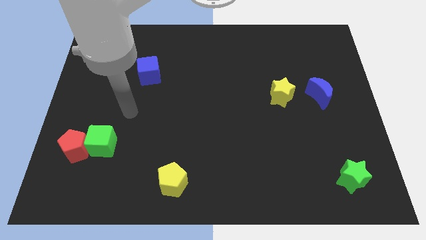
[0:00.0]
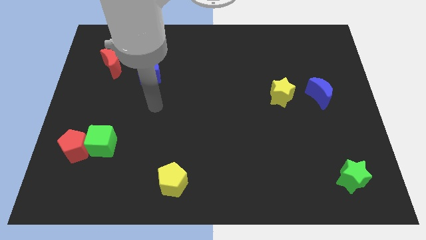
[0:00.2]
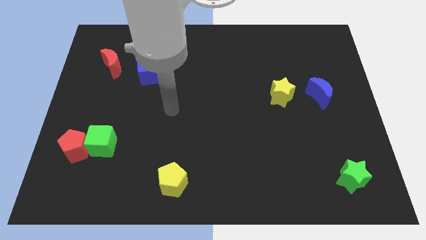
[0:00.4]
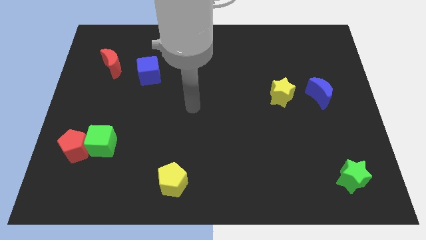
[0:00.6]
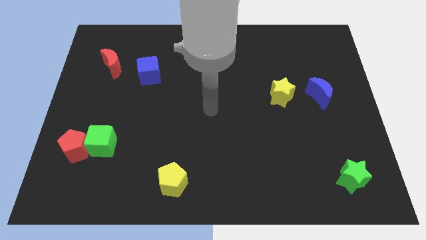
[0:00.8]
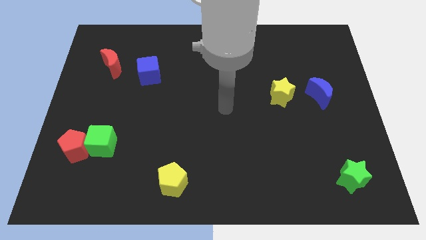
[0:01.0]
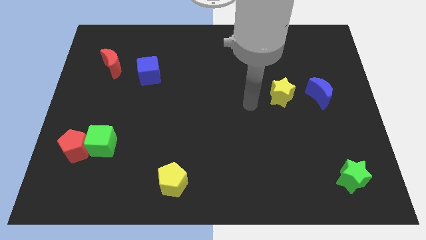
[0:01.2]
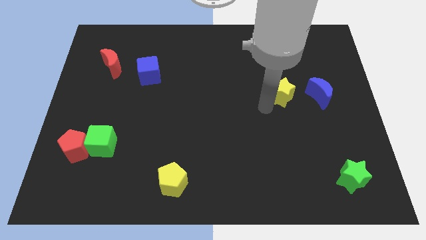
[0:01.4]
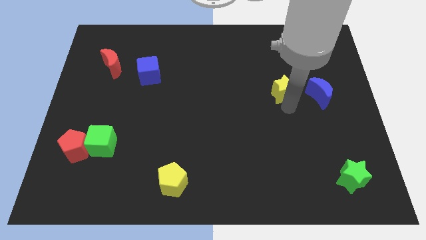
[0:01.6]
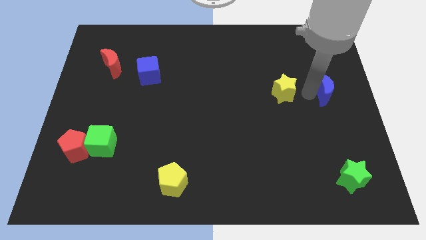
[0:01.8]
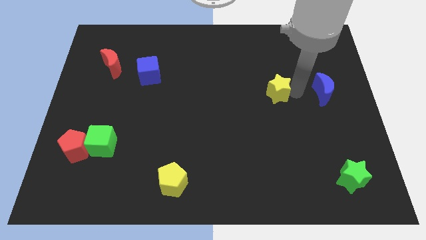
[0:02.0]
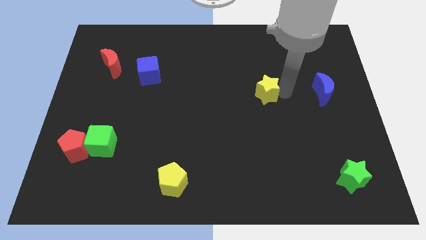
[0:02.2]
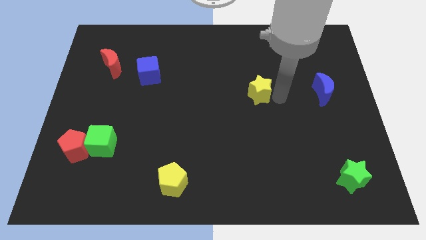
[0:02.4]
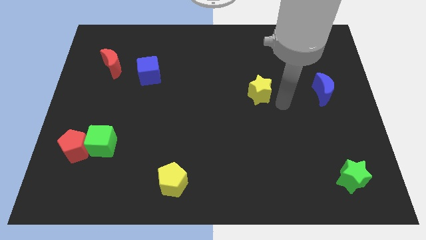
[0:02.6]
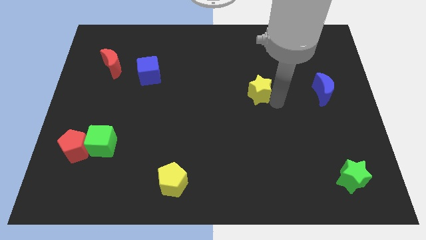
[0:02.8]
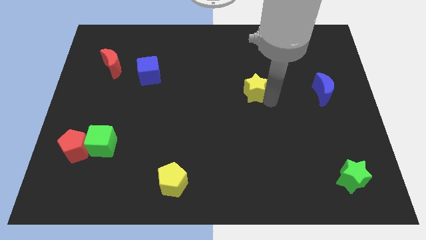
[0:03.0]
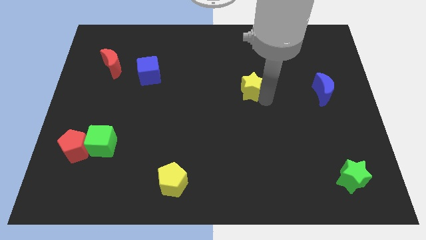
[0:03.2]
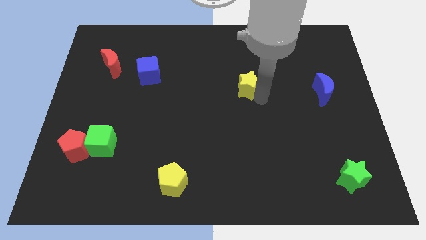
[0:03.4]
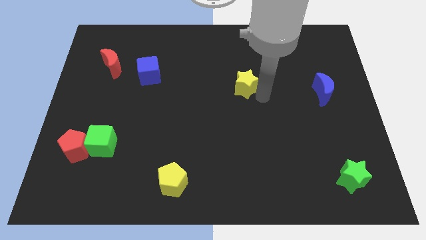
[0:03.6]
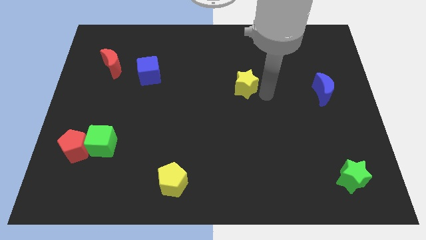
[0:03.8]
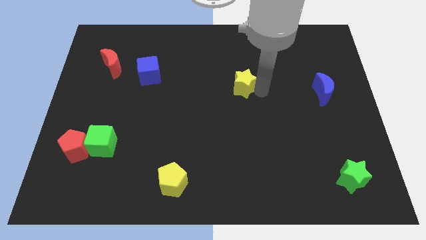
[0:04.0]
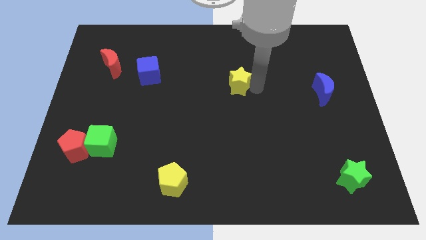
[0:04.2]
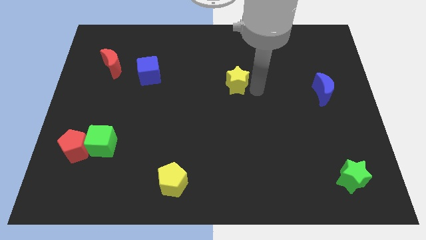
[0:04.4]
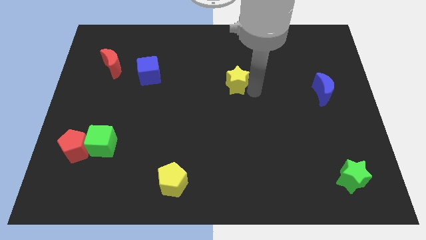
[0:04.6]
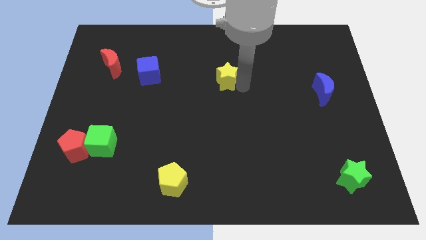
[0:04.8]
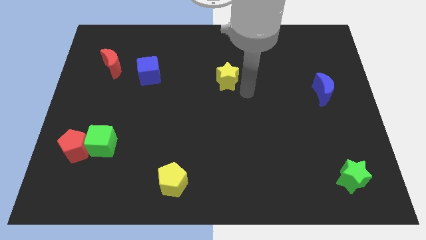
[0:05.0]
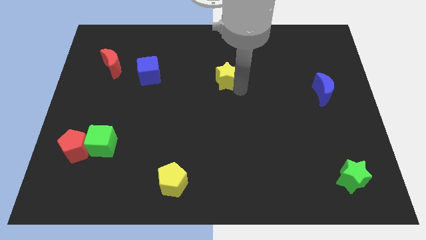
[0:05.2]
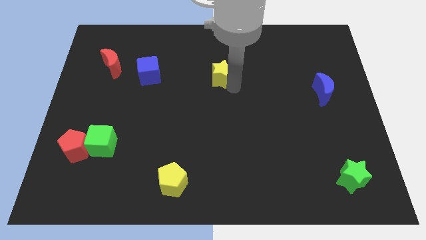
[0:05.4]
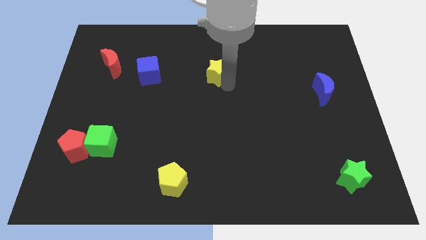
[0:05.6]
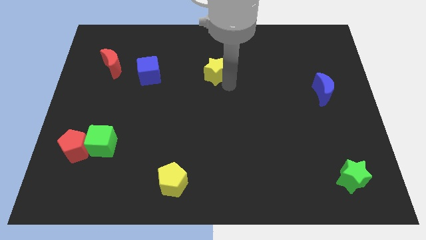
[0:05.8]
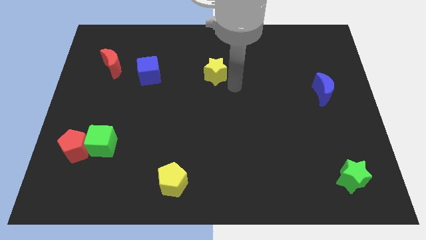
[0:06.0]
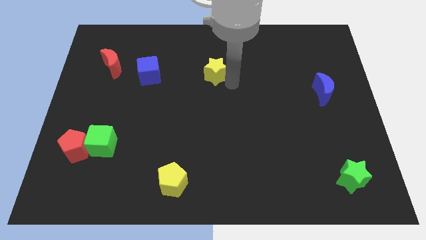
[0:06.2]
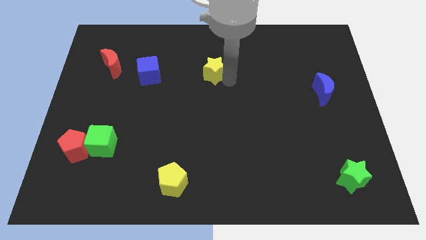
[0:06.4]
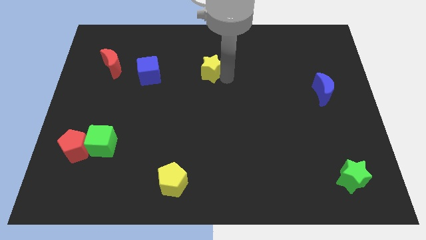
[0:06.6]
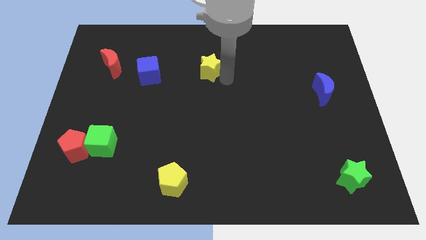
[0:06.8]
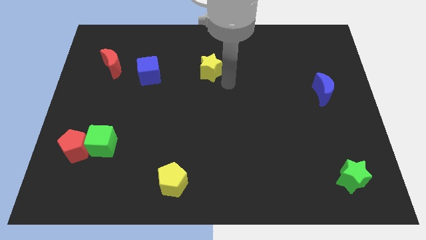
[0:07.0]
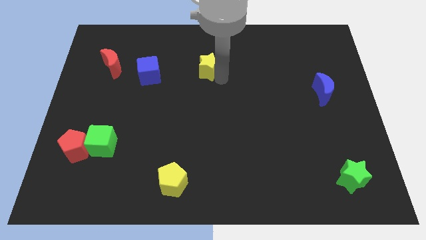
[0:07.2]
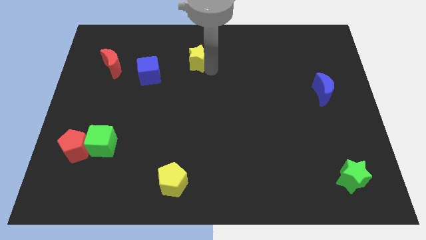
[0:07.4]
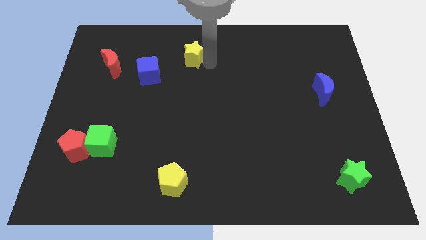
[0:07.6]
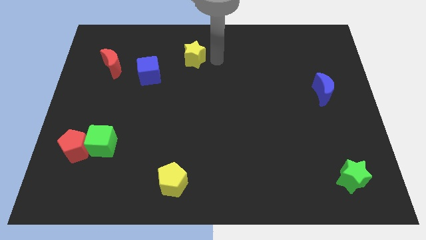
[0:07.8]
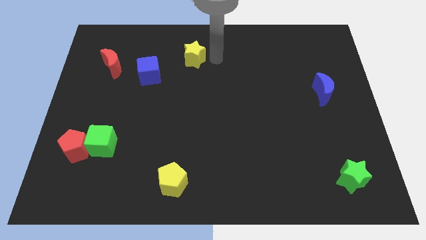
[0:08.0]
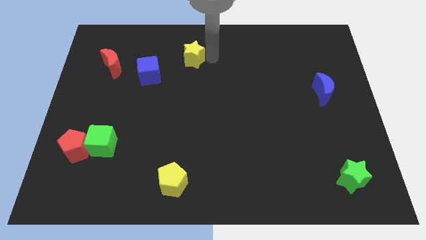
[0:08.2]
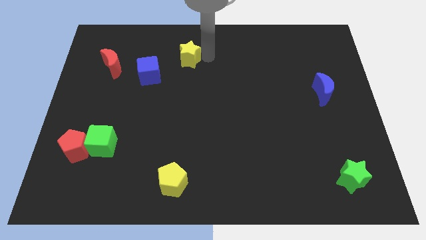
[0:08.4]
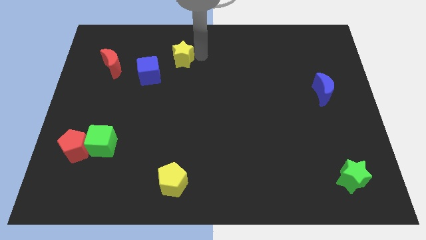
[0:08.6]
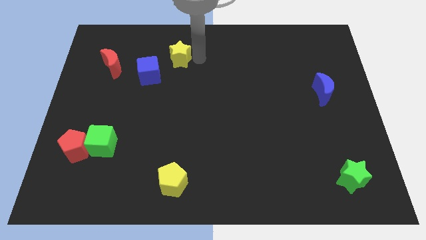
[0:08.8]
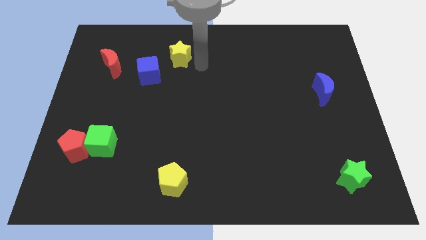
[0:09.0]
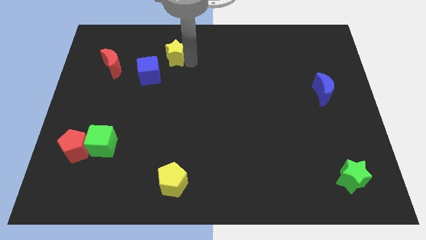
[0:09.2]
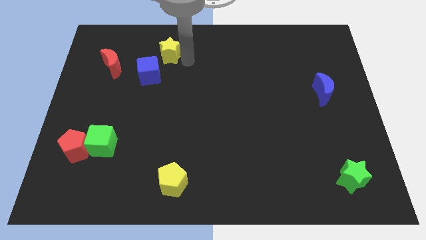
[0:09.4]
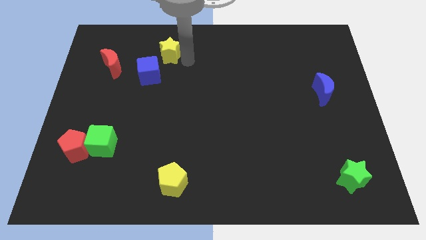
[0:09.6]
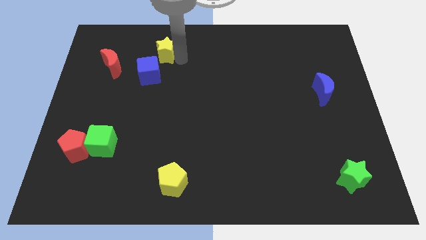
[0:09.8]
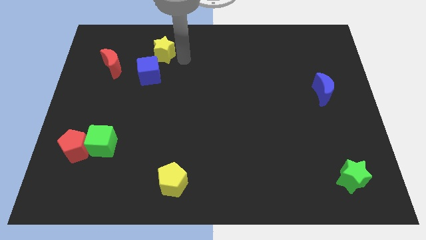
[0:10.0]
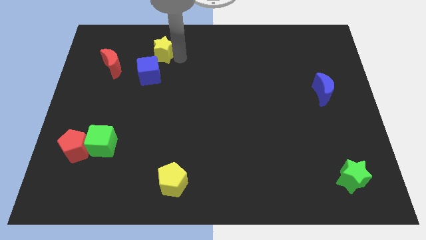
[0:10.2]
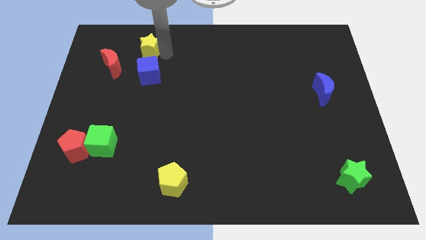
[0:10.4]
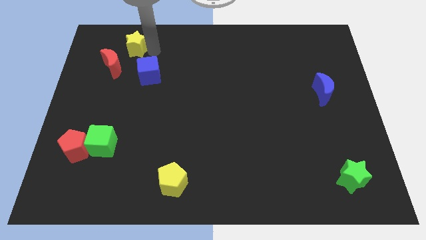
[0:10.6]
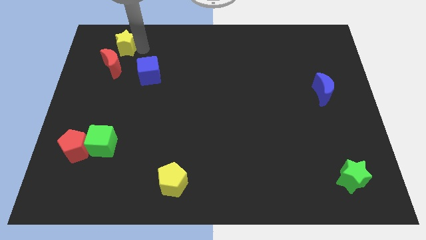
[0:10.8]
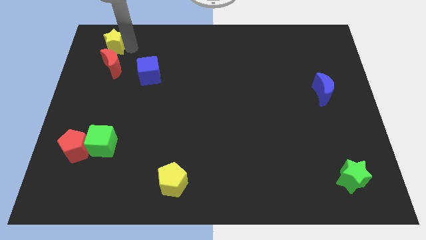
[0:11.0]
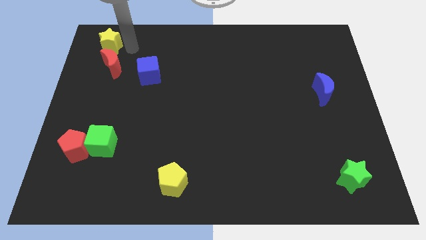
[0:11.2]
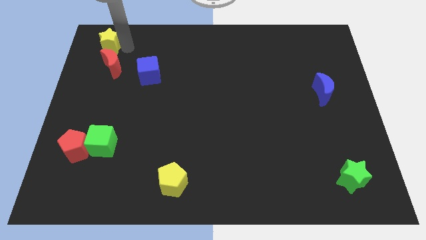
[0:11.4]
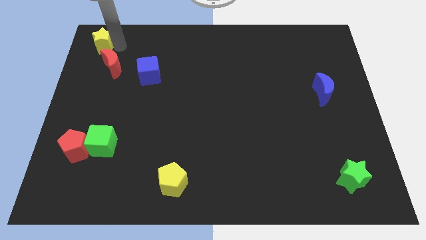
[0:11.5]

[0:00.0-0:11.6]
slide the yellow star to the top left

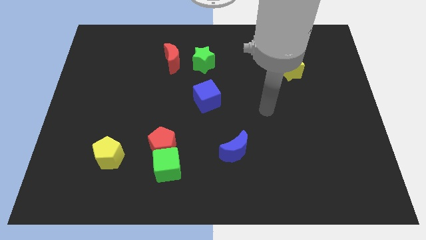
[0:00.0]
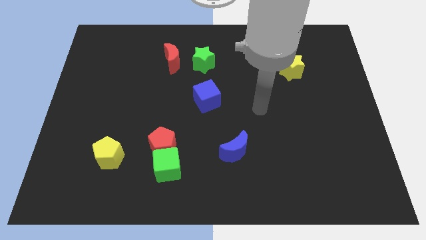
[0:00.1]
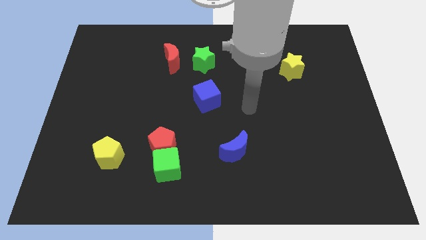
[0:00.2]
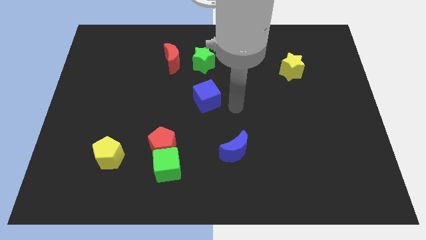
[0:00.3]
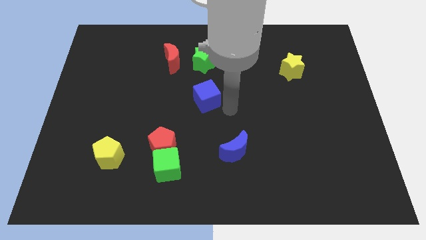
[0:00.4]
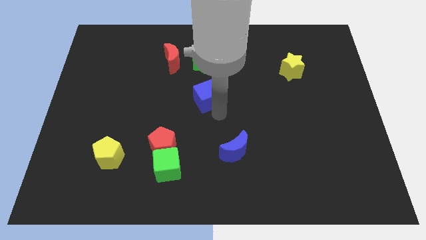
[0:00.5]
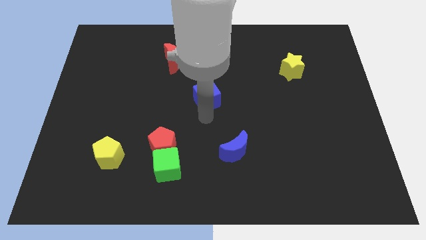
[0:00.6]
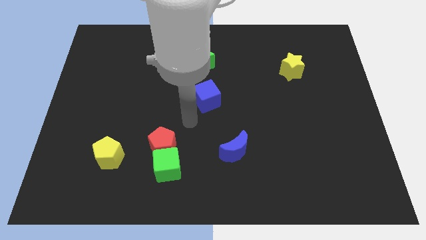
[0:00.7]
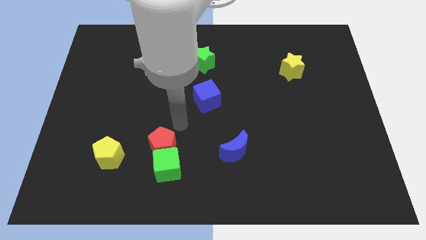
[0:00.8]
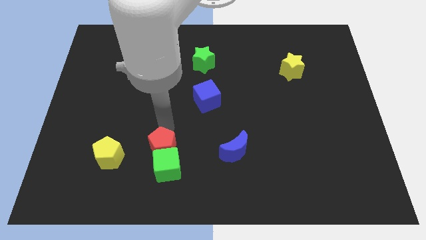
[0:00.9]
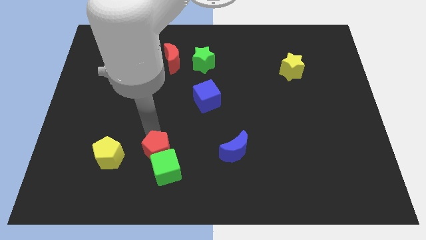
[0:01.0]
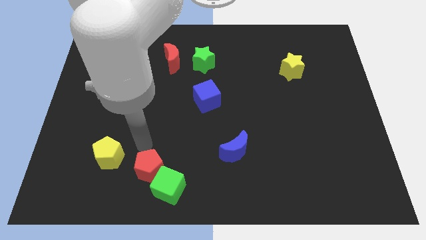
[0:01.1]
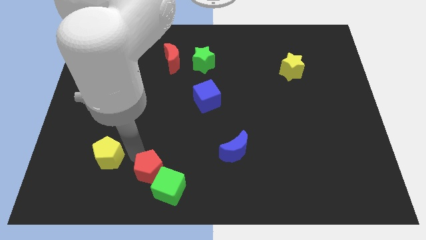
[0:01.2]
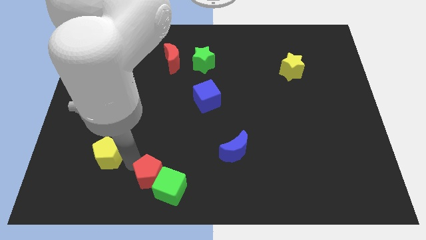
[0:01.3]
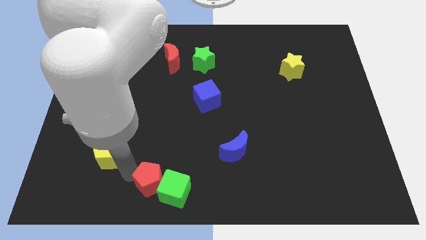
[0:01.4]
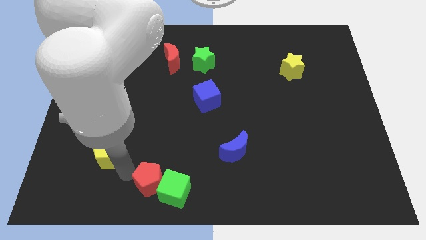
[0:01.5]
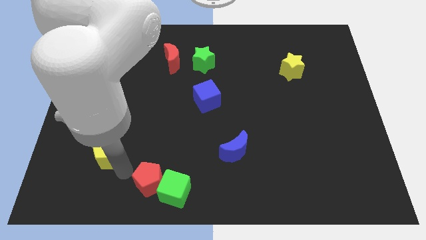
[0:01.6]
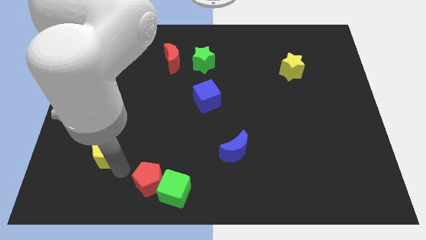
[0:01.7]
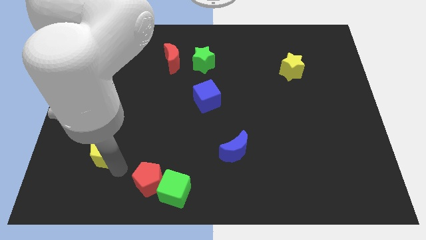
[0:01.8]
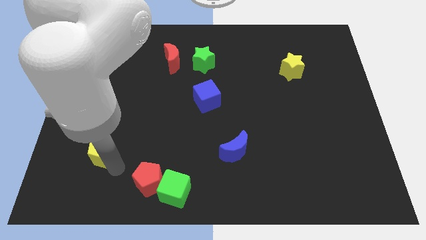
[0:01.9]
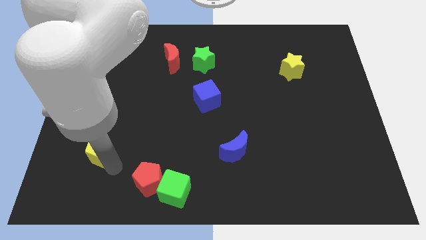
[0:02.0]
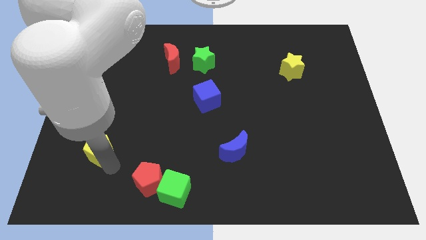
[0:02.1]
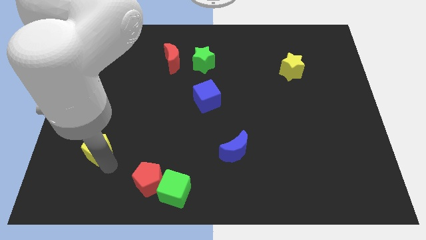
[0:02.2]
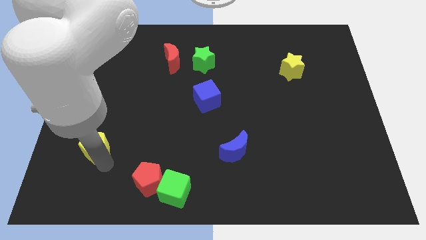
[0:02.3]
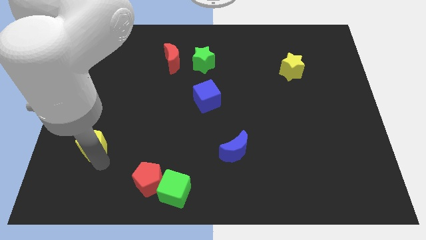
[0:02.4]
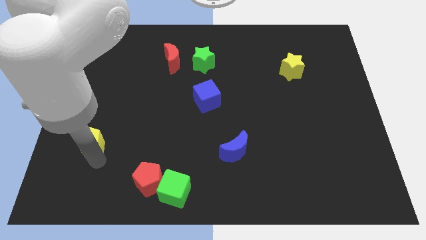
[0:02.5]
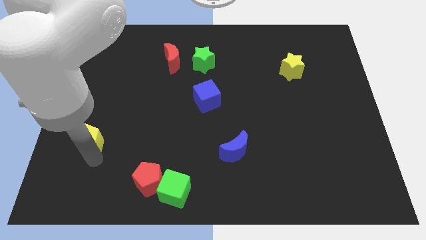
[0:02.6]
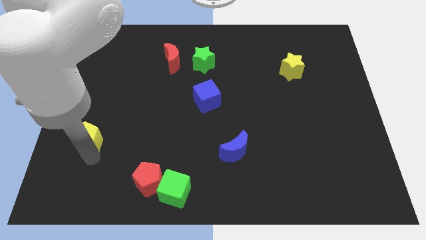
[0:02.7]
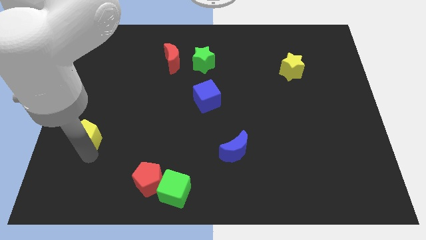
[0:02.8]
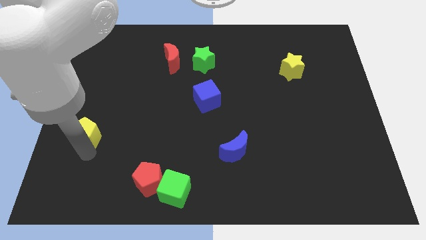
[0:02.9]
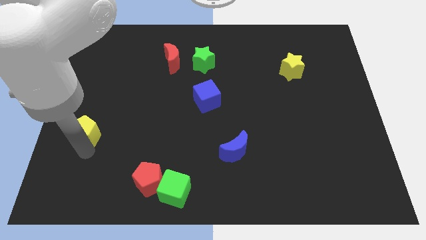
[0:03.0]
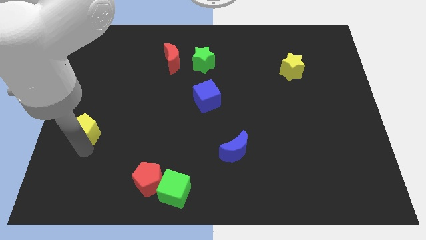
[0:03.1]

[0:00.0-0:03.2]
slide the yellow pentagon to the left side
